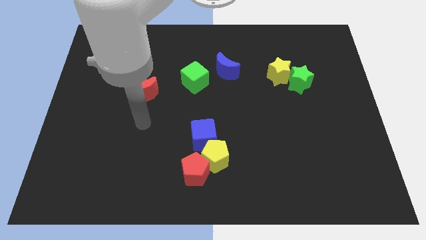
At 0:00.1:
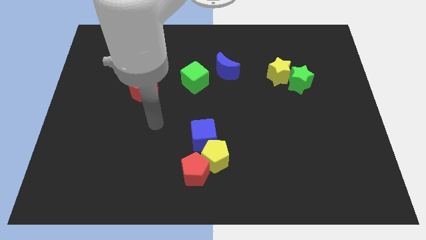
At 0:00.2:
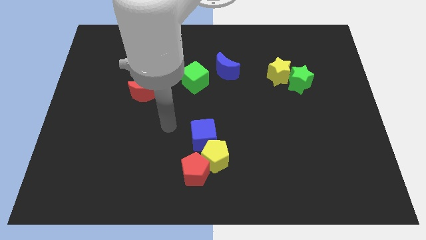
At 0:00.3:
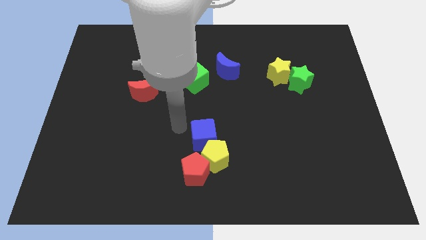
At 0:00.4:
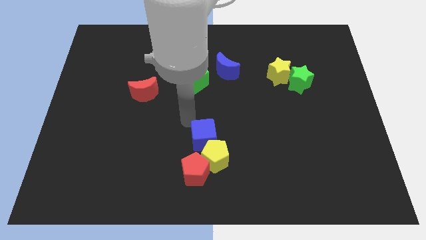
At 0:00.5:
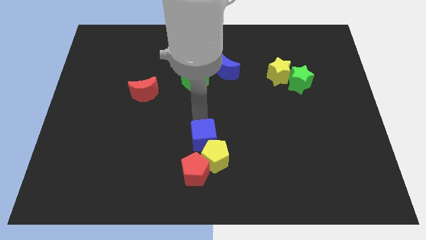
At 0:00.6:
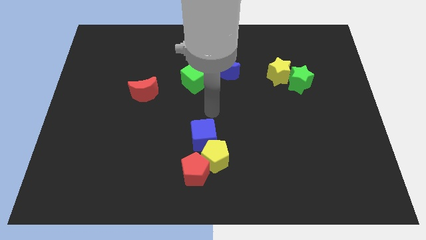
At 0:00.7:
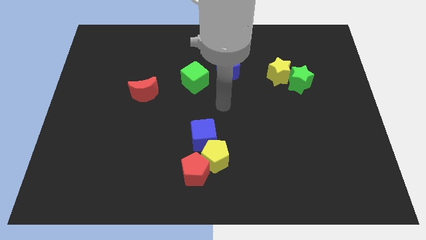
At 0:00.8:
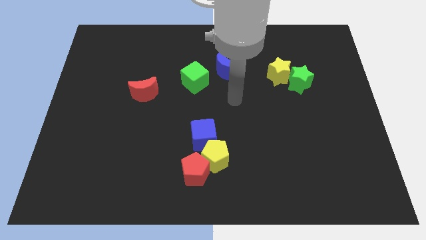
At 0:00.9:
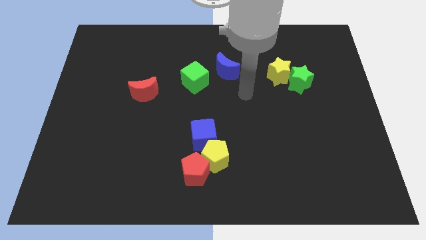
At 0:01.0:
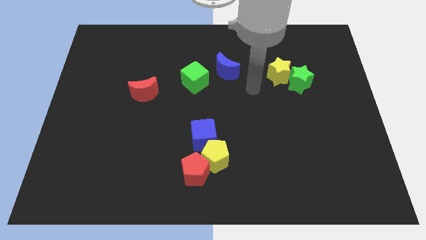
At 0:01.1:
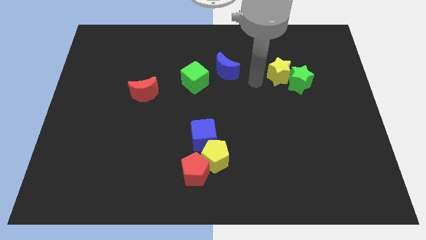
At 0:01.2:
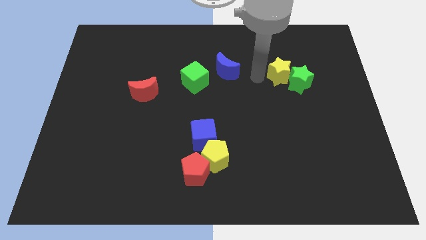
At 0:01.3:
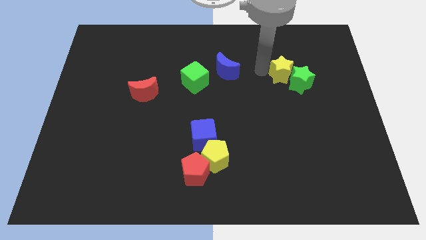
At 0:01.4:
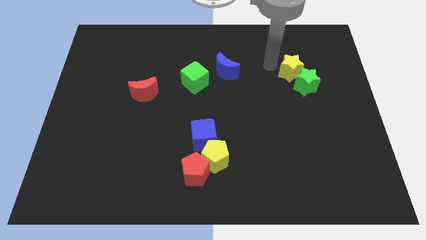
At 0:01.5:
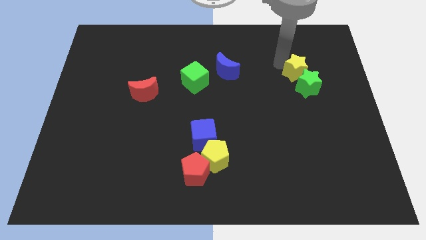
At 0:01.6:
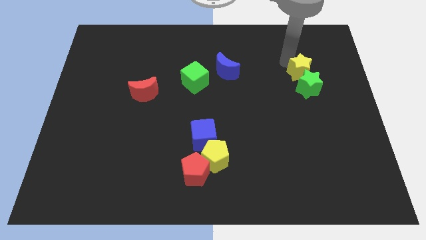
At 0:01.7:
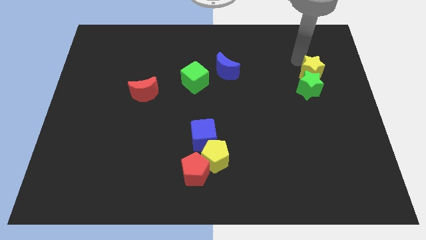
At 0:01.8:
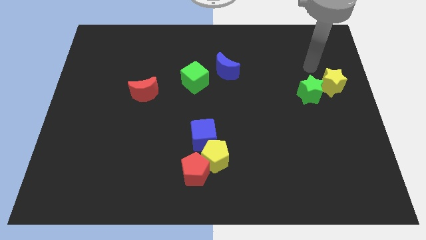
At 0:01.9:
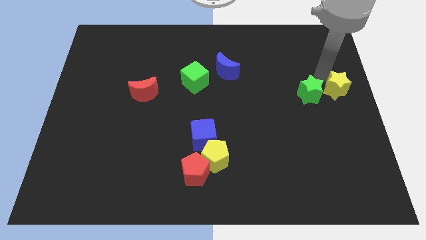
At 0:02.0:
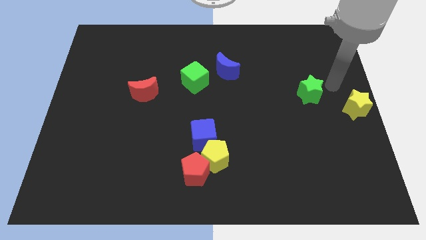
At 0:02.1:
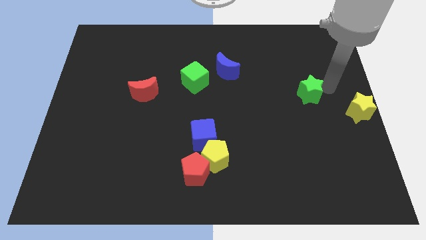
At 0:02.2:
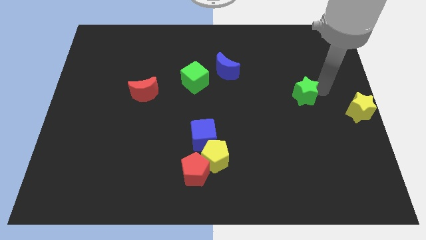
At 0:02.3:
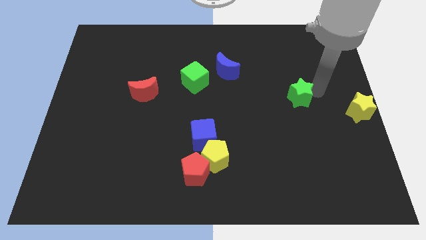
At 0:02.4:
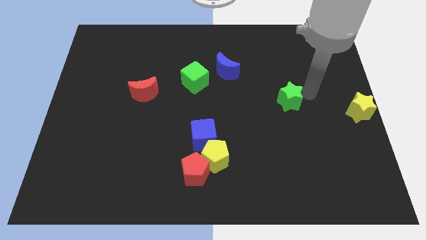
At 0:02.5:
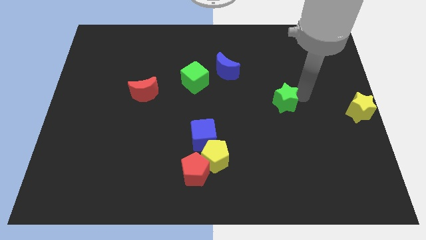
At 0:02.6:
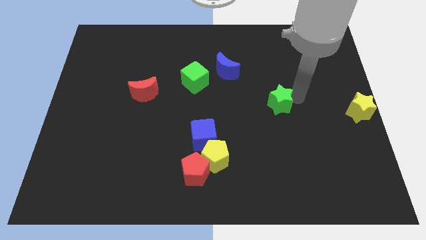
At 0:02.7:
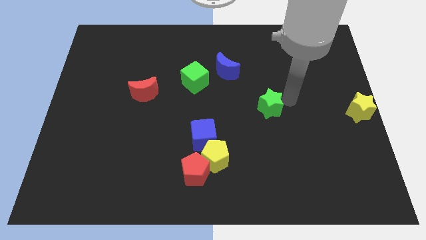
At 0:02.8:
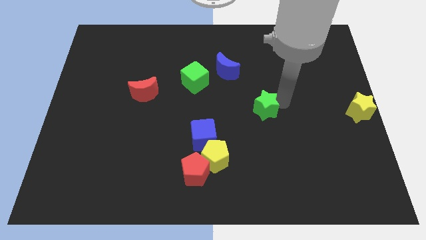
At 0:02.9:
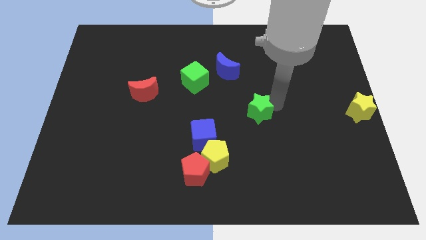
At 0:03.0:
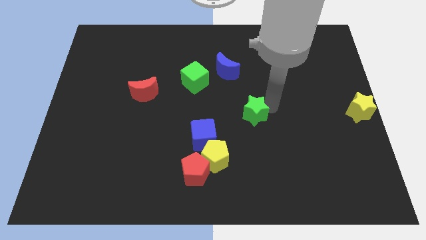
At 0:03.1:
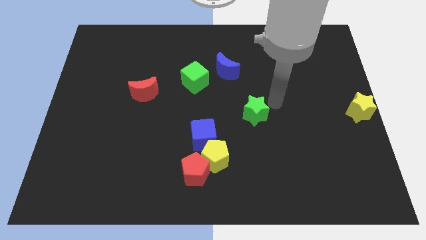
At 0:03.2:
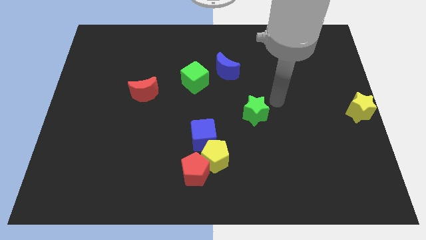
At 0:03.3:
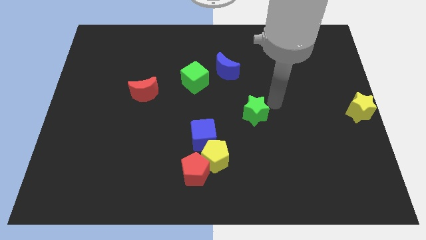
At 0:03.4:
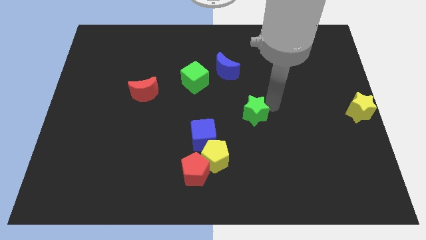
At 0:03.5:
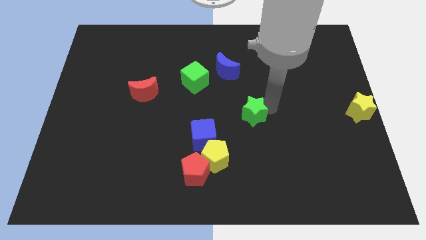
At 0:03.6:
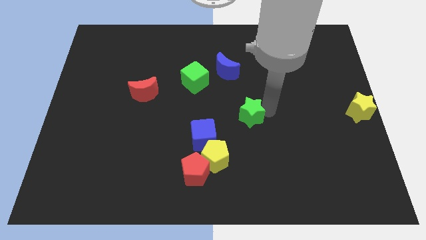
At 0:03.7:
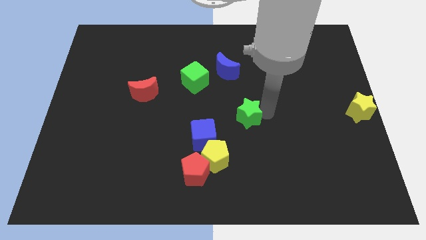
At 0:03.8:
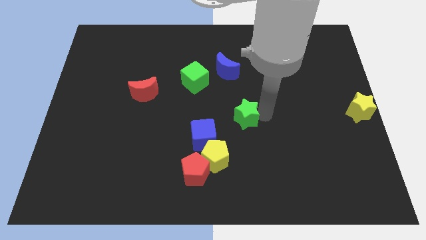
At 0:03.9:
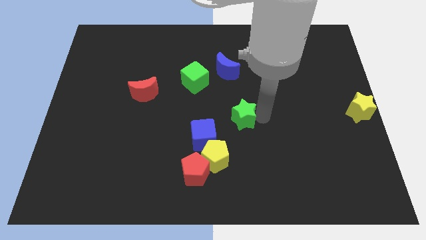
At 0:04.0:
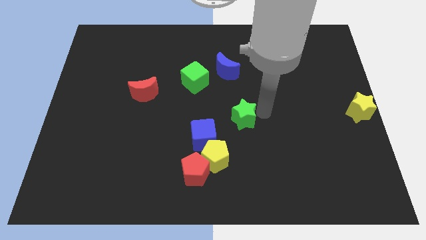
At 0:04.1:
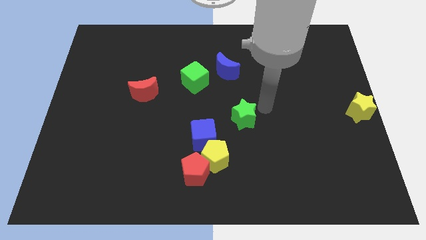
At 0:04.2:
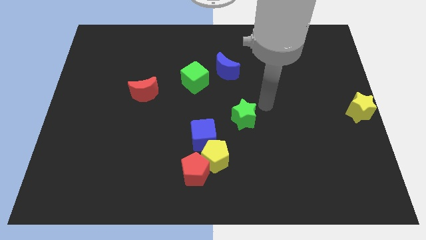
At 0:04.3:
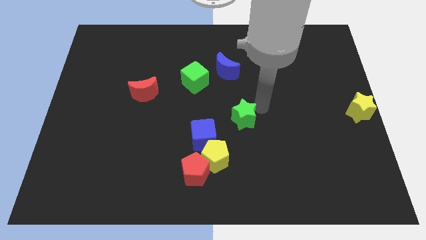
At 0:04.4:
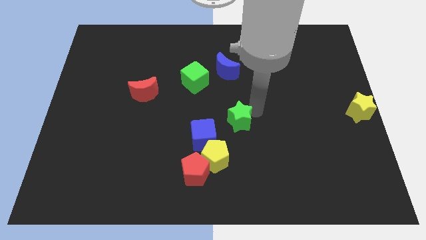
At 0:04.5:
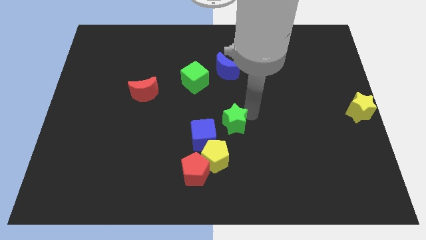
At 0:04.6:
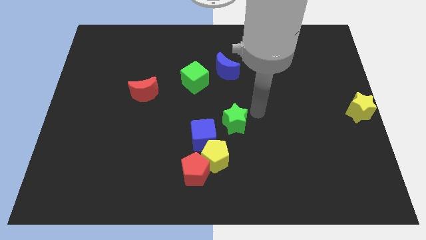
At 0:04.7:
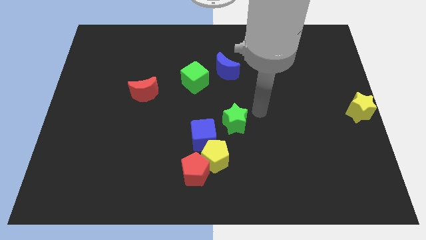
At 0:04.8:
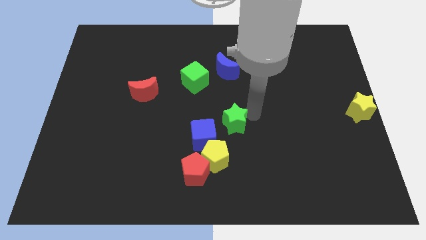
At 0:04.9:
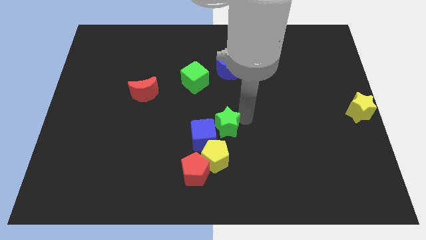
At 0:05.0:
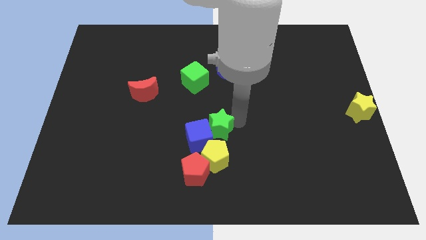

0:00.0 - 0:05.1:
put the green star next to the blue cube

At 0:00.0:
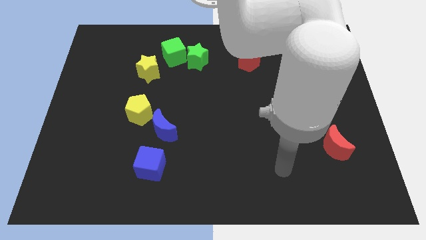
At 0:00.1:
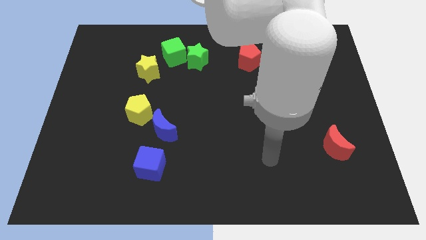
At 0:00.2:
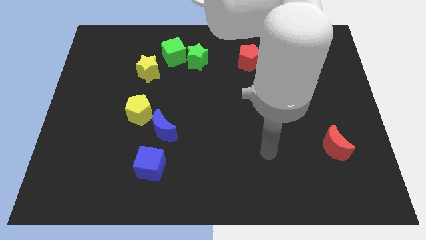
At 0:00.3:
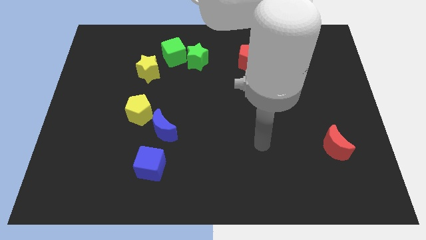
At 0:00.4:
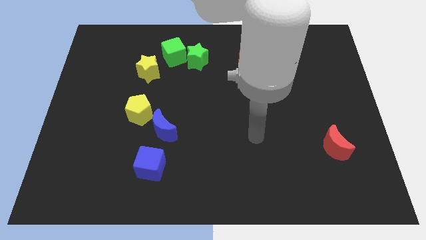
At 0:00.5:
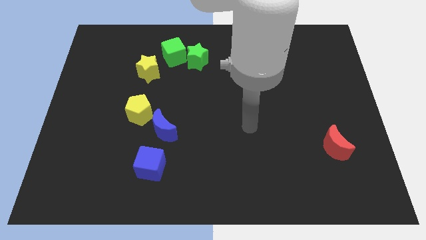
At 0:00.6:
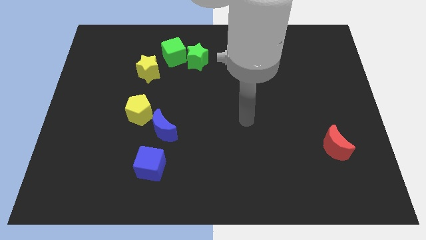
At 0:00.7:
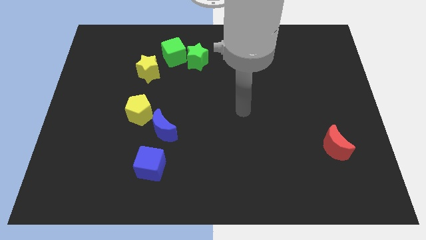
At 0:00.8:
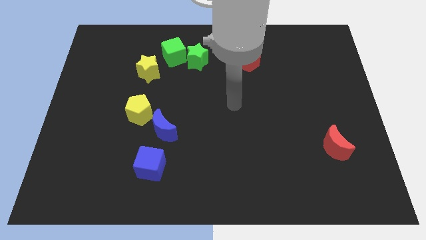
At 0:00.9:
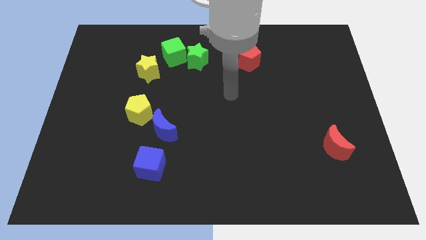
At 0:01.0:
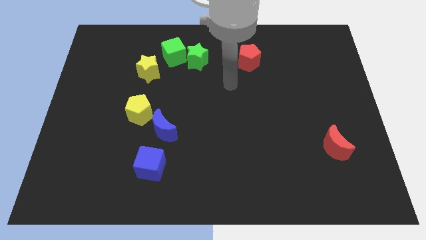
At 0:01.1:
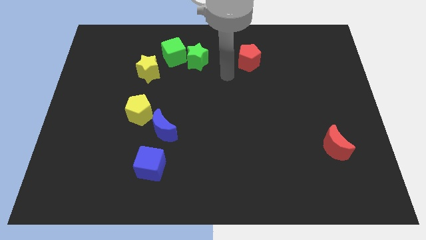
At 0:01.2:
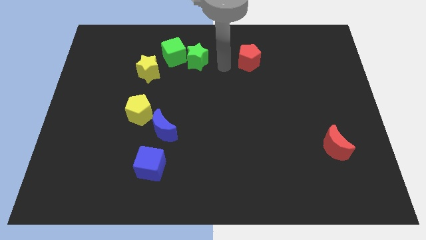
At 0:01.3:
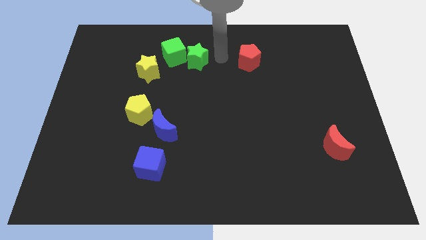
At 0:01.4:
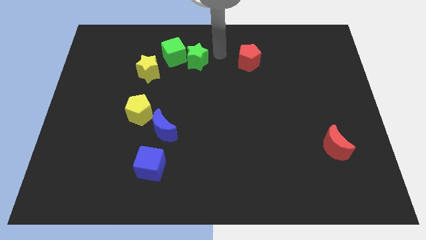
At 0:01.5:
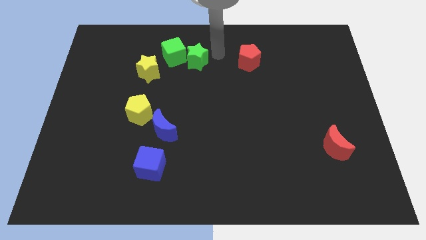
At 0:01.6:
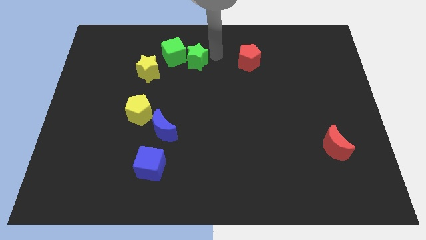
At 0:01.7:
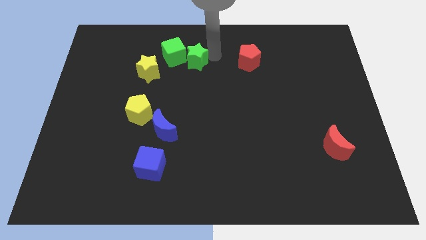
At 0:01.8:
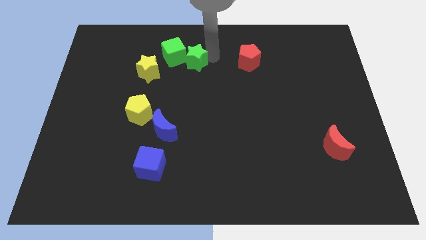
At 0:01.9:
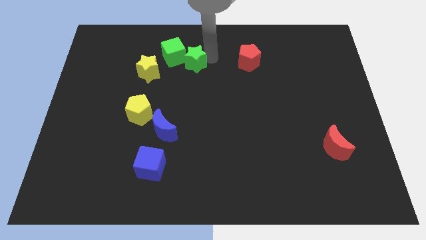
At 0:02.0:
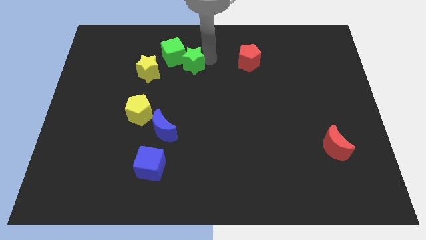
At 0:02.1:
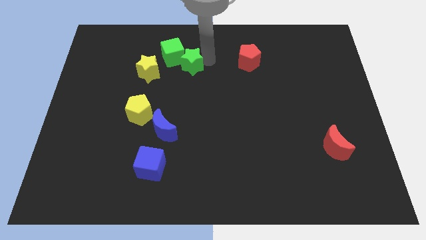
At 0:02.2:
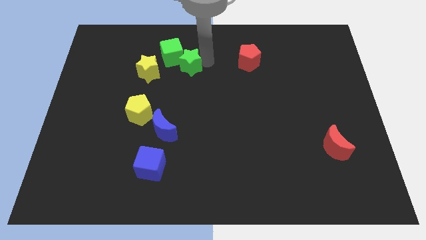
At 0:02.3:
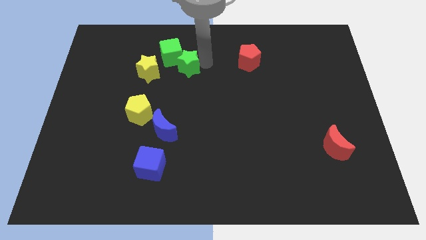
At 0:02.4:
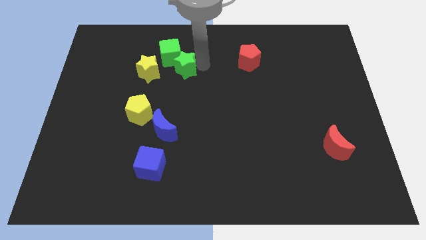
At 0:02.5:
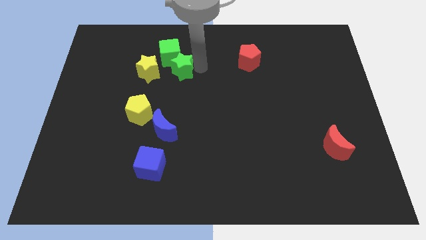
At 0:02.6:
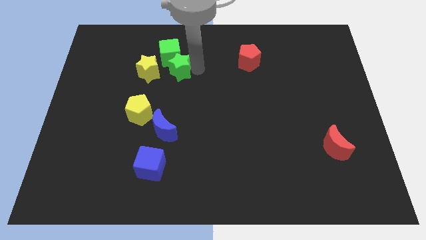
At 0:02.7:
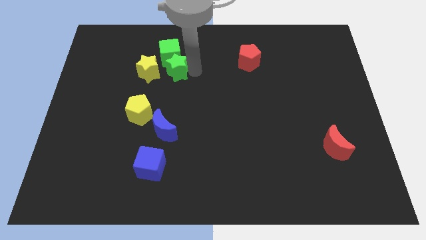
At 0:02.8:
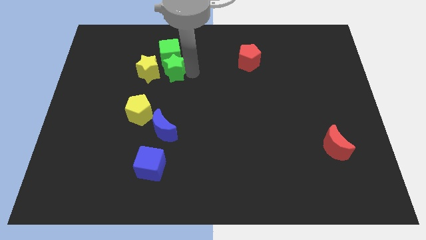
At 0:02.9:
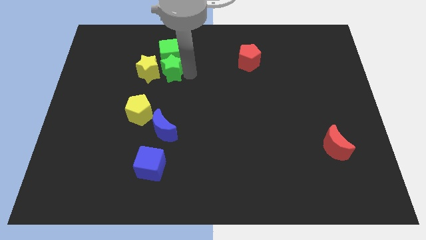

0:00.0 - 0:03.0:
move the green star close to the yellow star

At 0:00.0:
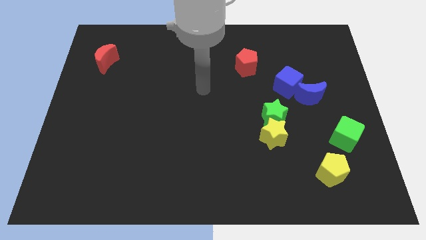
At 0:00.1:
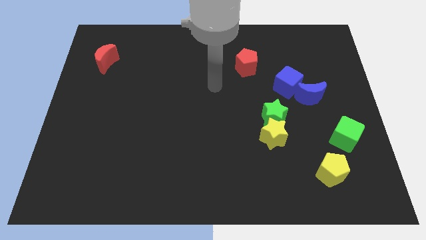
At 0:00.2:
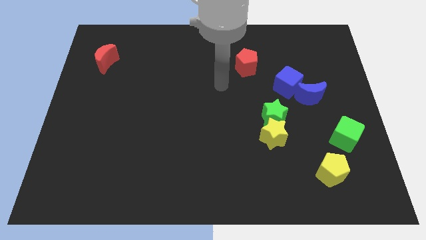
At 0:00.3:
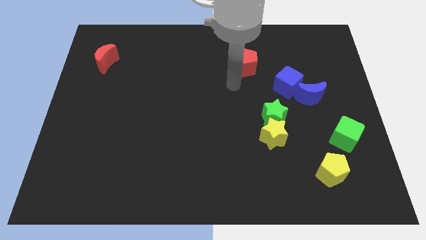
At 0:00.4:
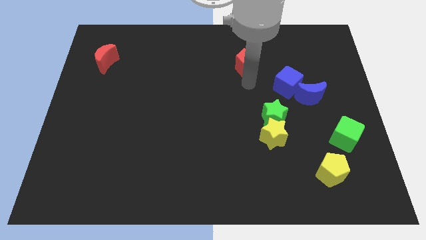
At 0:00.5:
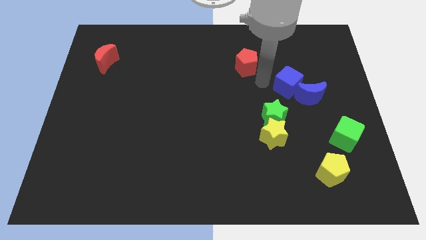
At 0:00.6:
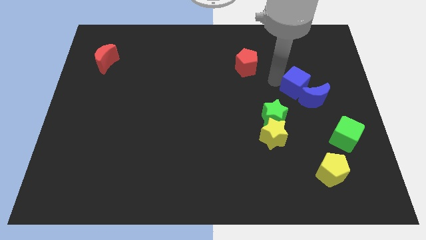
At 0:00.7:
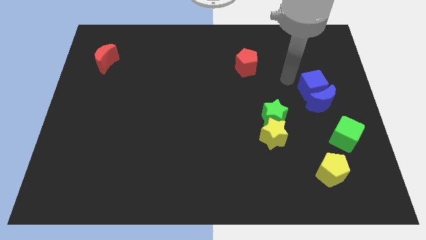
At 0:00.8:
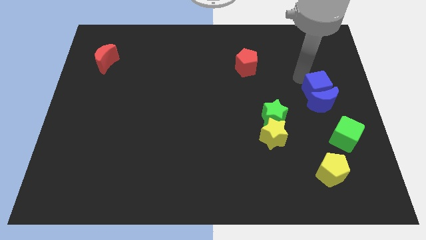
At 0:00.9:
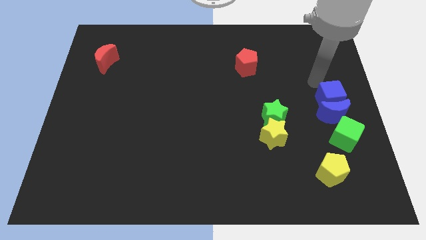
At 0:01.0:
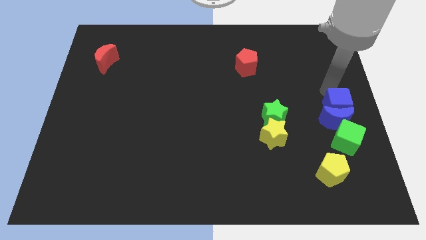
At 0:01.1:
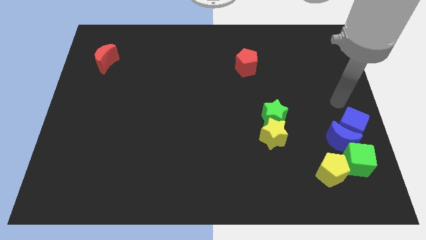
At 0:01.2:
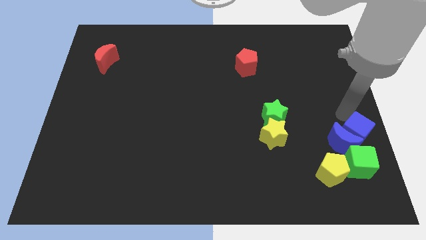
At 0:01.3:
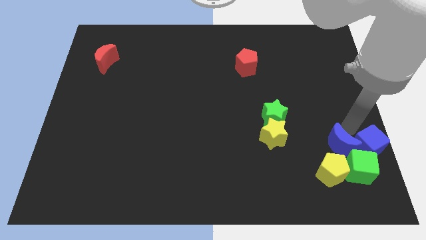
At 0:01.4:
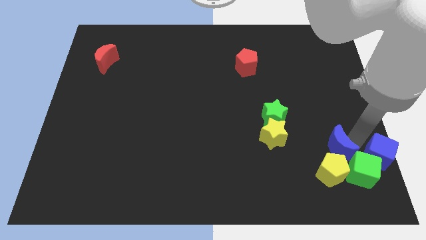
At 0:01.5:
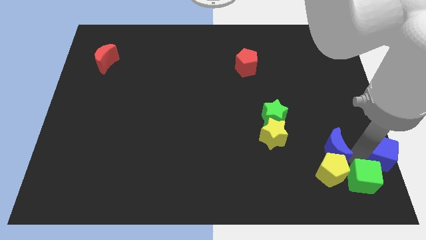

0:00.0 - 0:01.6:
push the blue moon next to the yellow pentagon
